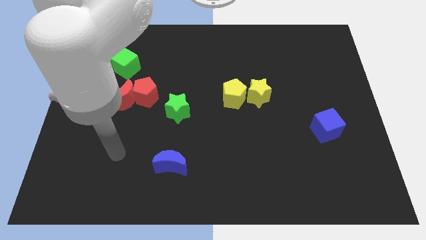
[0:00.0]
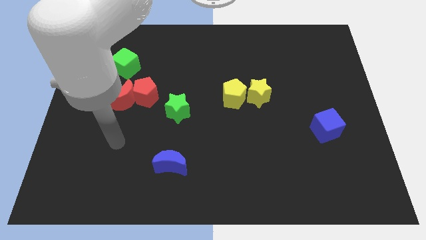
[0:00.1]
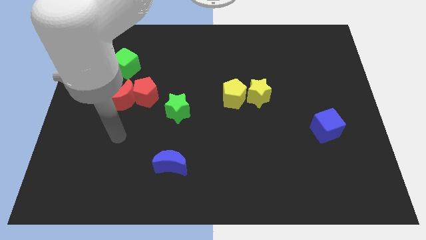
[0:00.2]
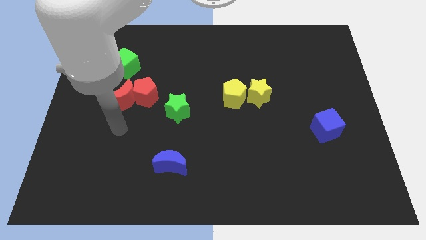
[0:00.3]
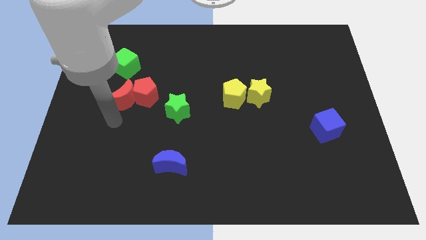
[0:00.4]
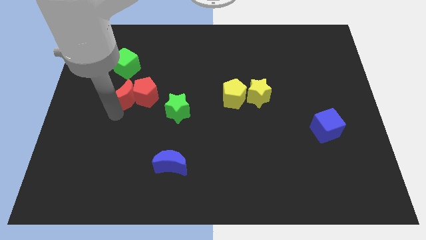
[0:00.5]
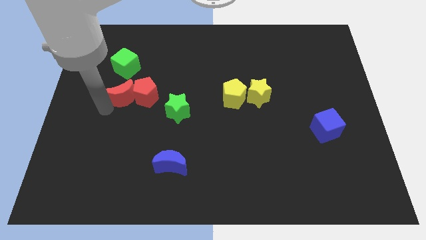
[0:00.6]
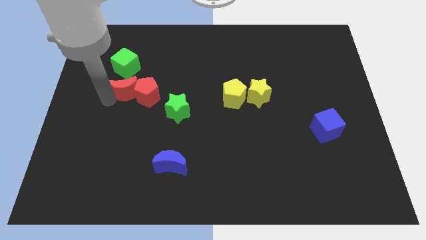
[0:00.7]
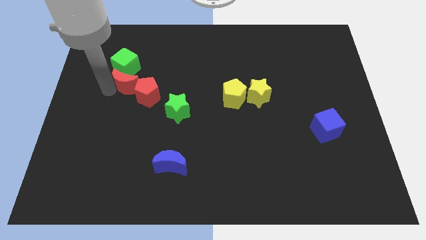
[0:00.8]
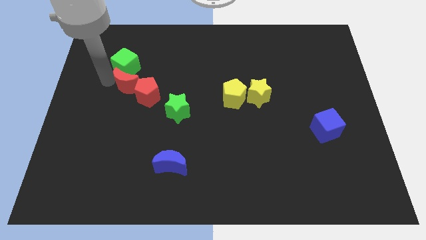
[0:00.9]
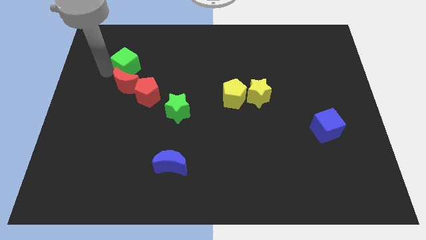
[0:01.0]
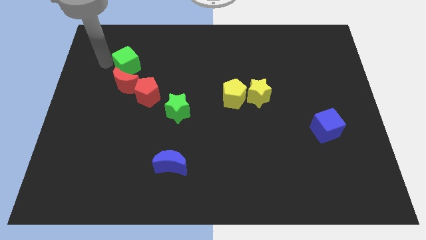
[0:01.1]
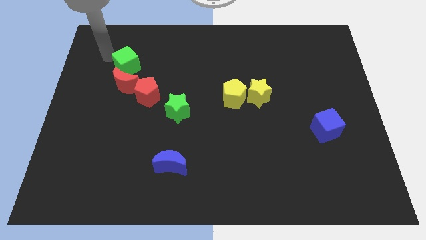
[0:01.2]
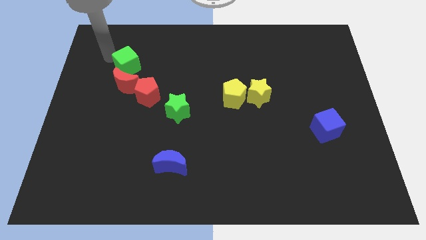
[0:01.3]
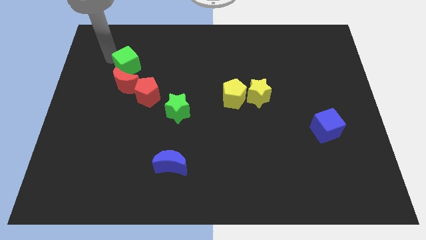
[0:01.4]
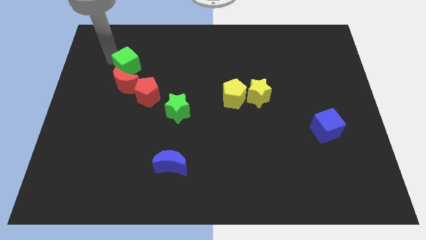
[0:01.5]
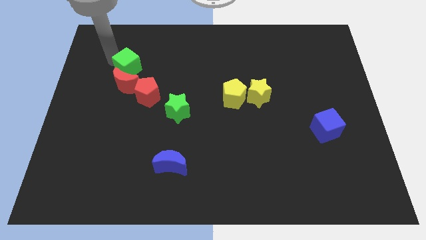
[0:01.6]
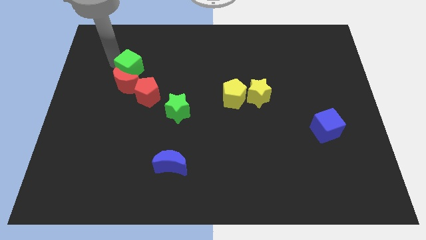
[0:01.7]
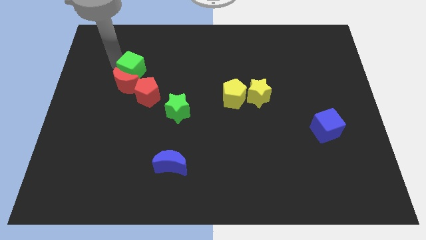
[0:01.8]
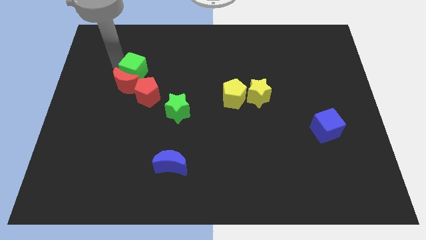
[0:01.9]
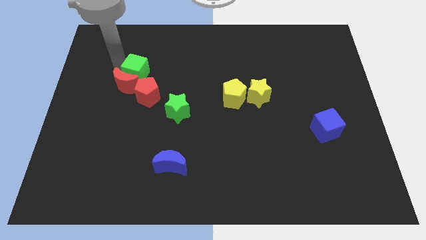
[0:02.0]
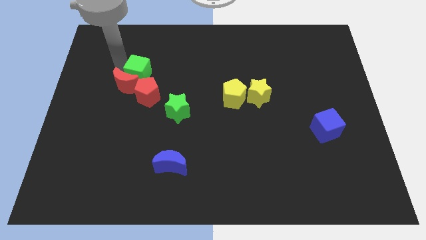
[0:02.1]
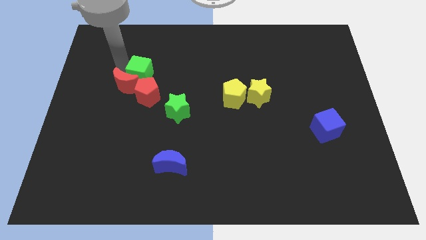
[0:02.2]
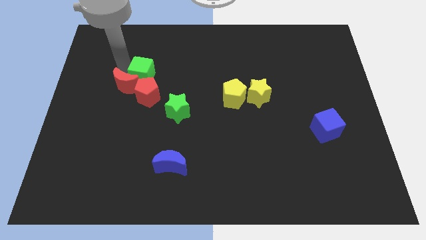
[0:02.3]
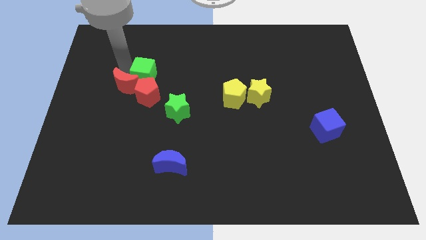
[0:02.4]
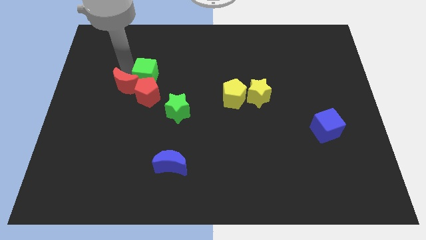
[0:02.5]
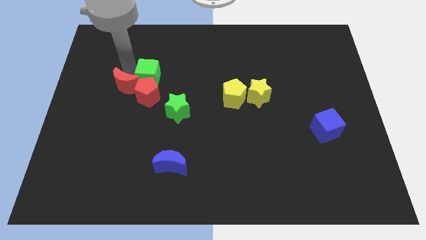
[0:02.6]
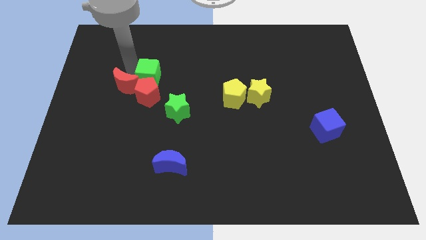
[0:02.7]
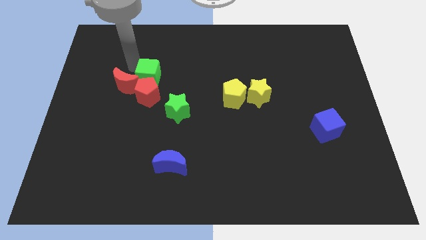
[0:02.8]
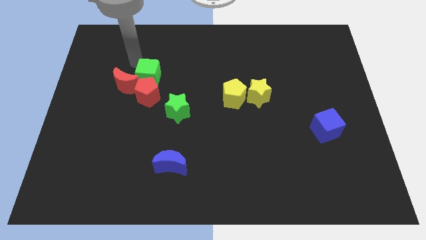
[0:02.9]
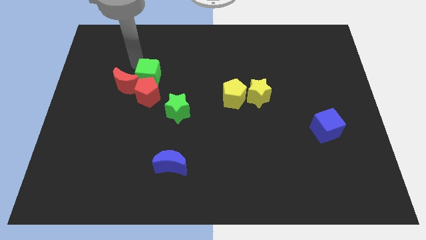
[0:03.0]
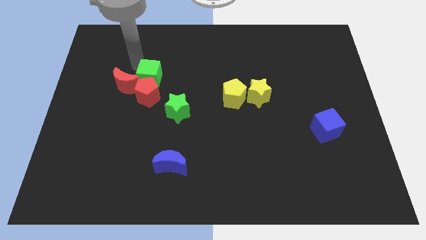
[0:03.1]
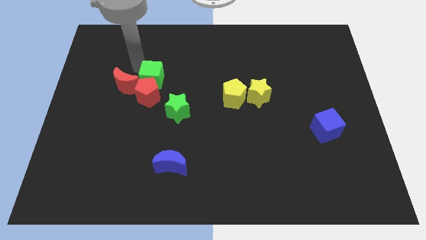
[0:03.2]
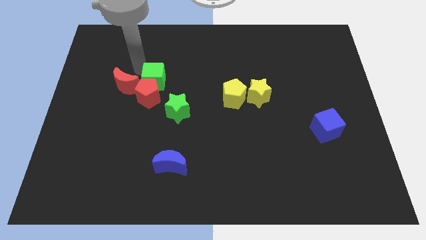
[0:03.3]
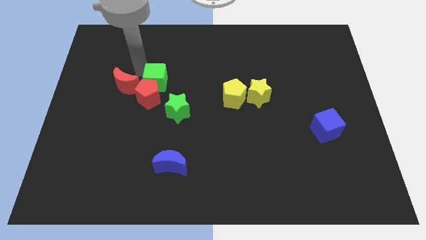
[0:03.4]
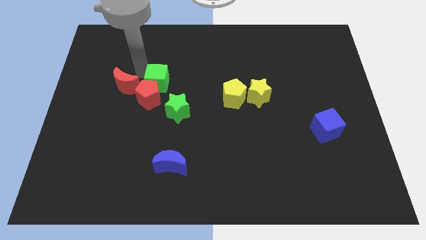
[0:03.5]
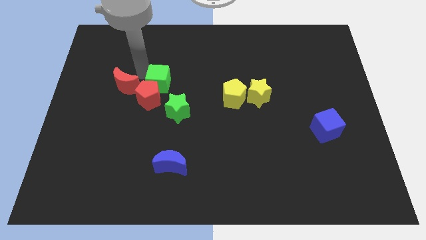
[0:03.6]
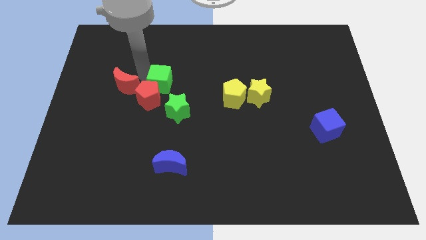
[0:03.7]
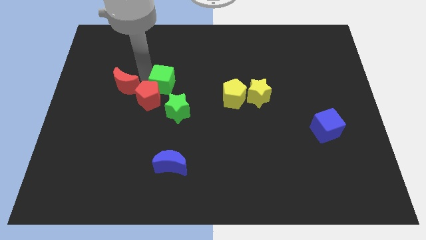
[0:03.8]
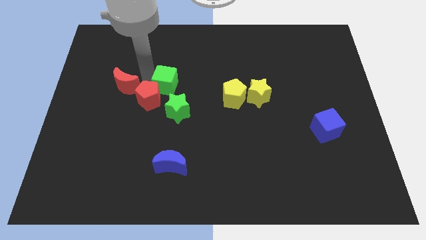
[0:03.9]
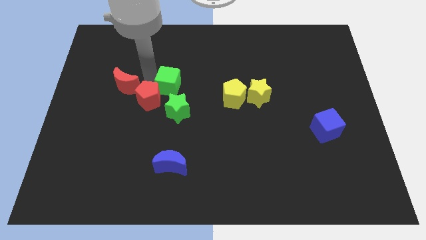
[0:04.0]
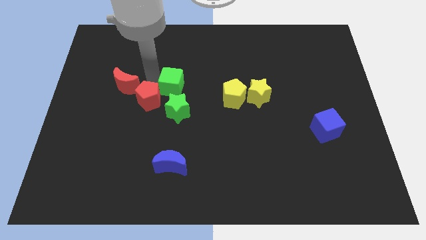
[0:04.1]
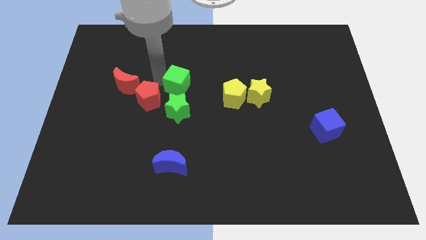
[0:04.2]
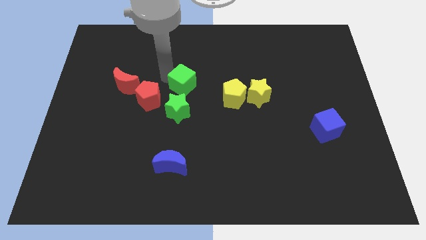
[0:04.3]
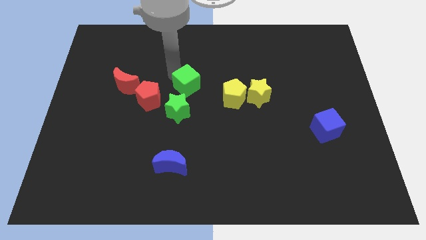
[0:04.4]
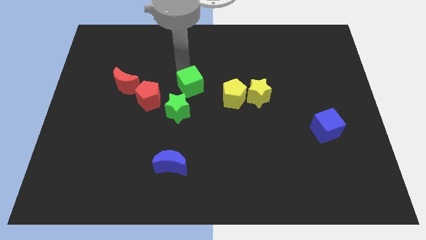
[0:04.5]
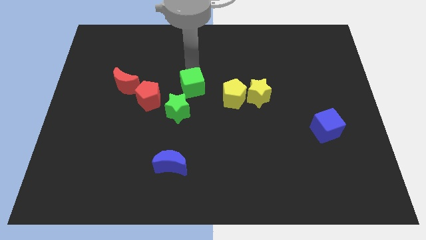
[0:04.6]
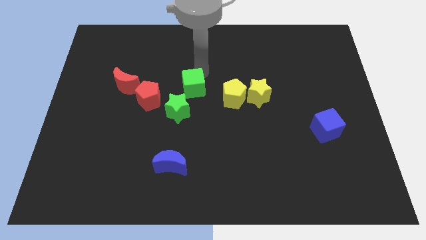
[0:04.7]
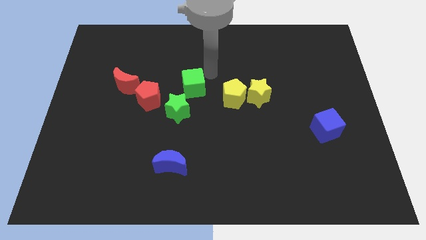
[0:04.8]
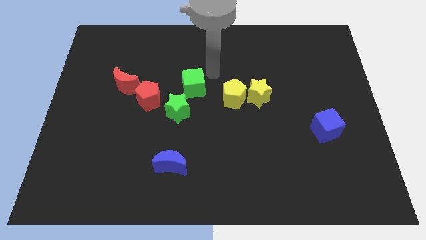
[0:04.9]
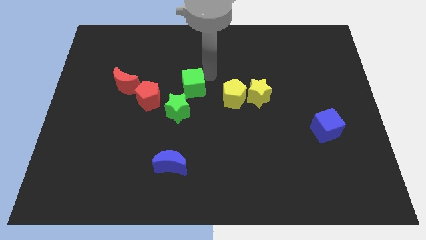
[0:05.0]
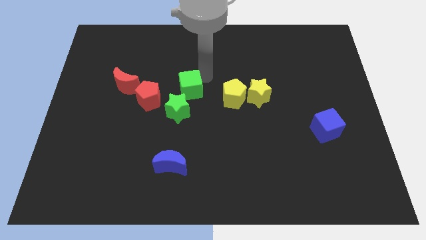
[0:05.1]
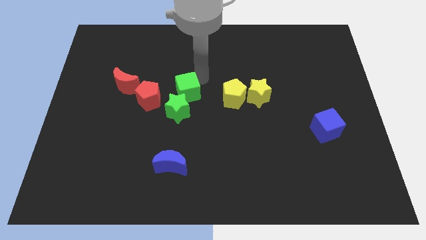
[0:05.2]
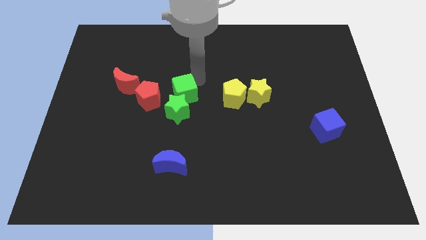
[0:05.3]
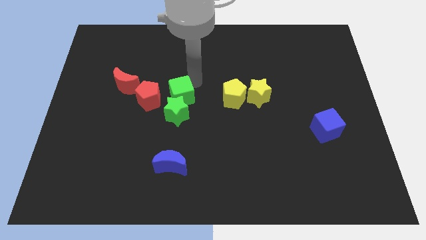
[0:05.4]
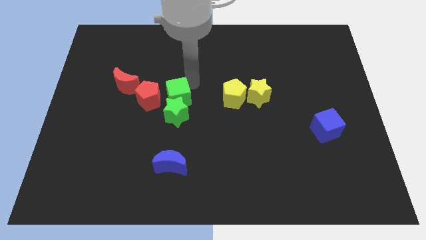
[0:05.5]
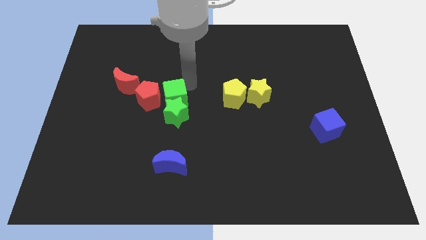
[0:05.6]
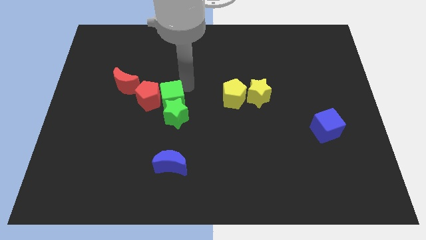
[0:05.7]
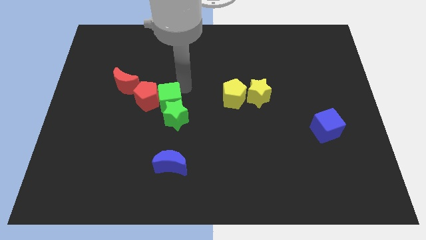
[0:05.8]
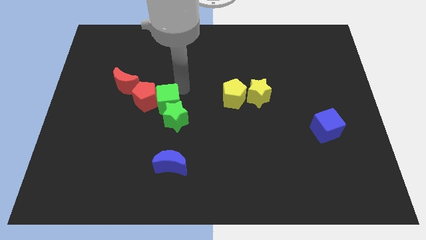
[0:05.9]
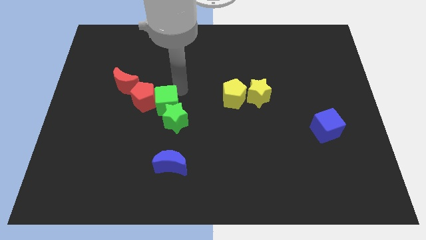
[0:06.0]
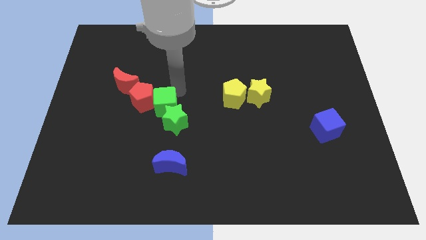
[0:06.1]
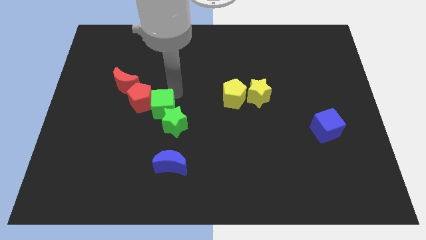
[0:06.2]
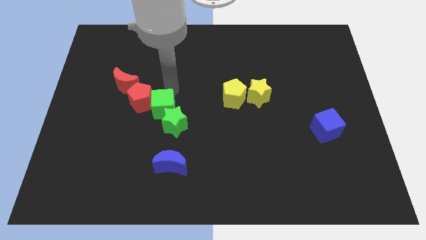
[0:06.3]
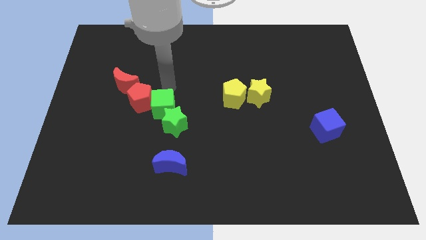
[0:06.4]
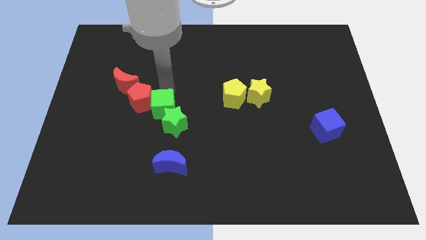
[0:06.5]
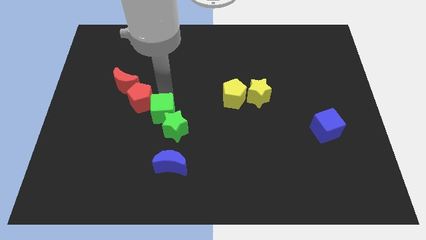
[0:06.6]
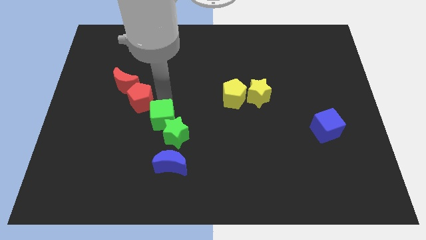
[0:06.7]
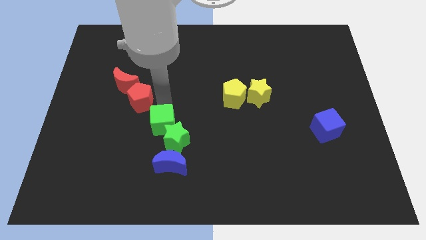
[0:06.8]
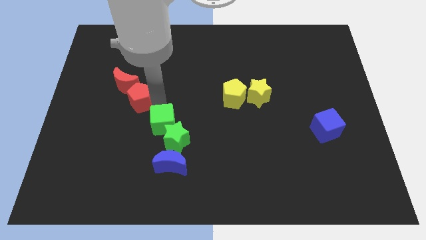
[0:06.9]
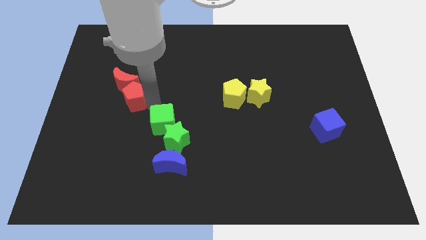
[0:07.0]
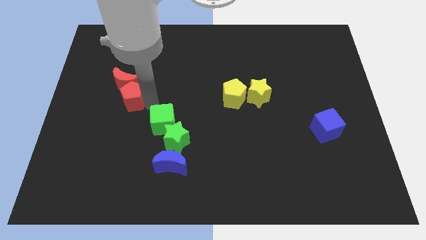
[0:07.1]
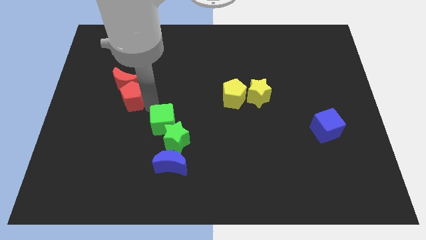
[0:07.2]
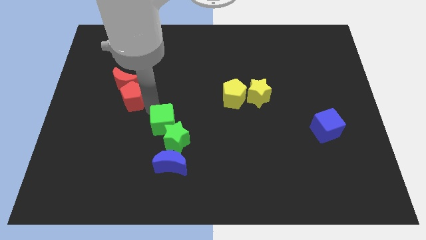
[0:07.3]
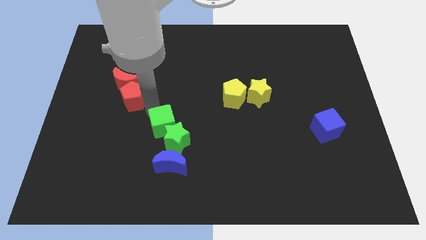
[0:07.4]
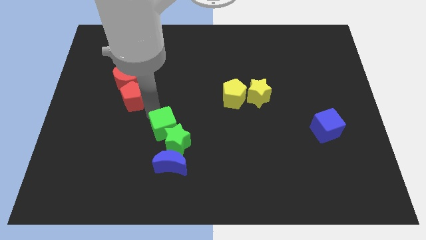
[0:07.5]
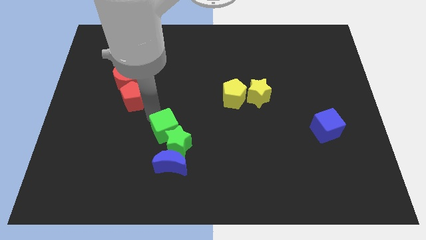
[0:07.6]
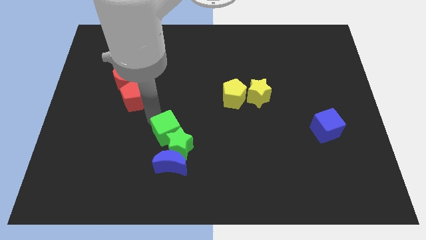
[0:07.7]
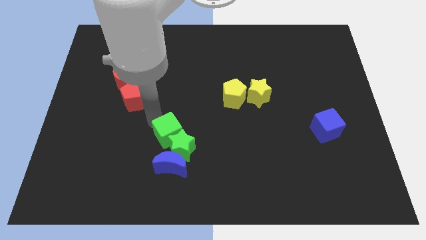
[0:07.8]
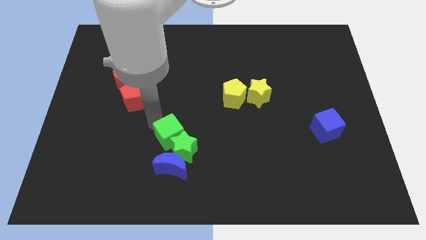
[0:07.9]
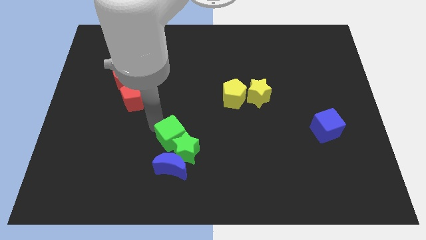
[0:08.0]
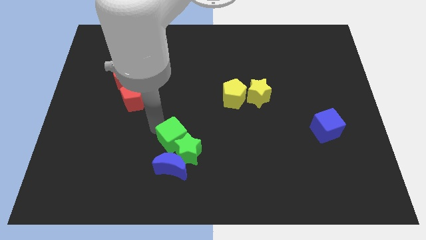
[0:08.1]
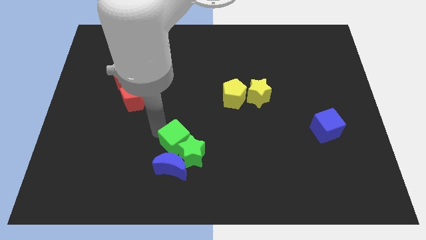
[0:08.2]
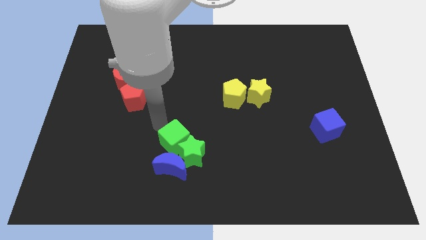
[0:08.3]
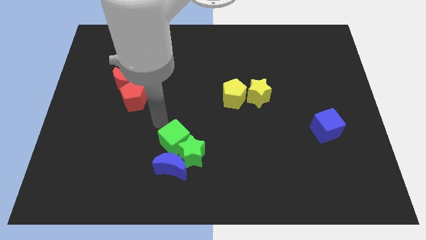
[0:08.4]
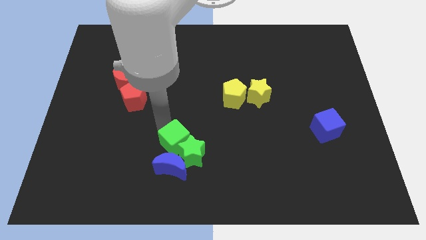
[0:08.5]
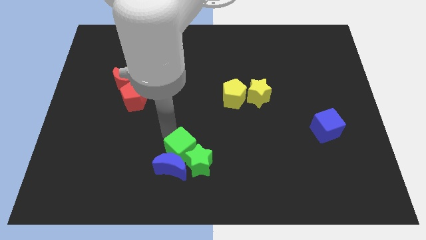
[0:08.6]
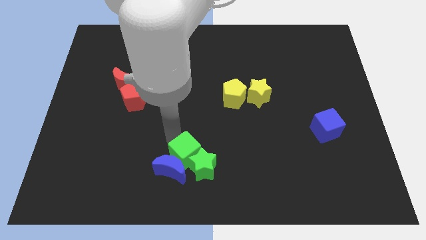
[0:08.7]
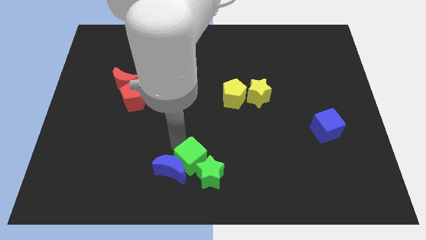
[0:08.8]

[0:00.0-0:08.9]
move the green cube to the bottom side
